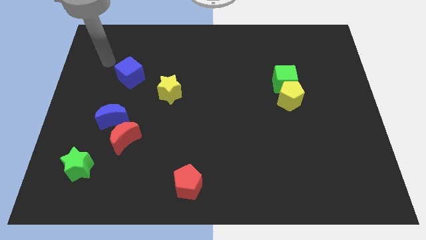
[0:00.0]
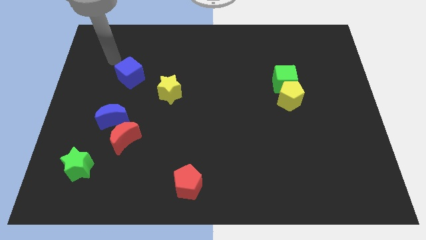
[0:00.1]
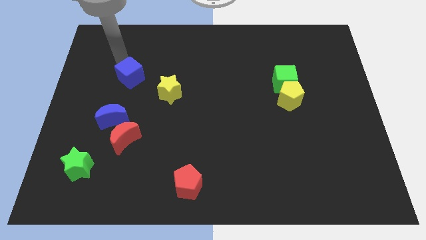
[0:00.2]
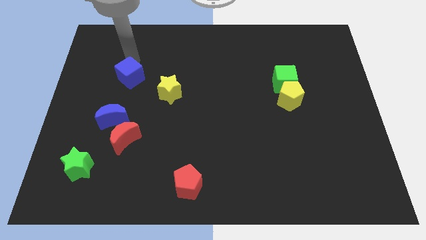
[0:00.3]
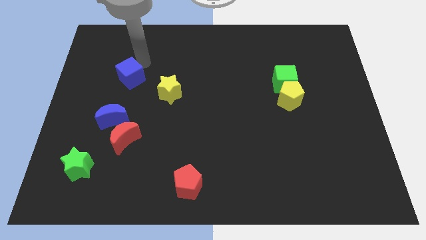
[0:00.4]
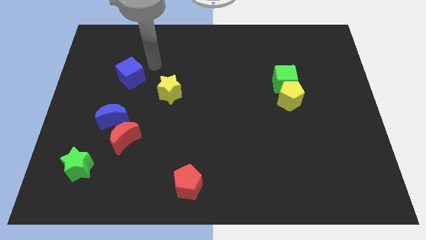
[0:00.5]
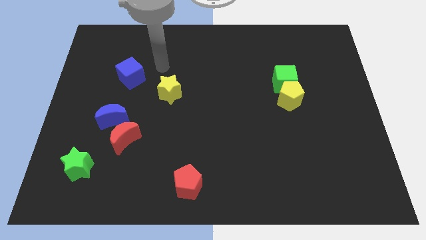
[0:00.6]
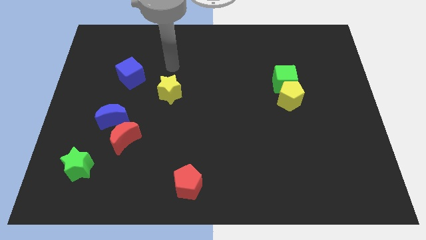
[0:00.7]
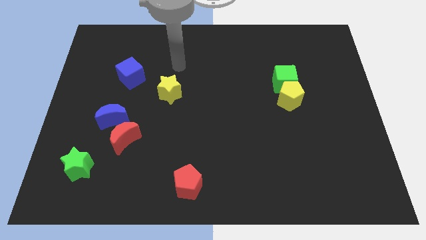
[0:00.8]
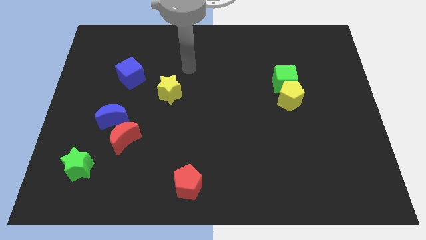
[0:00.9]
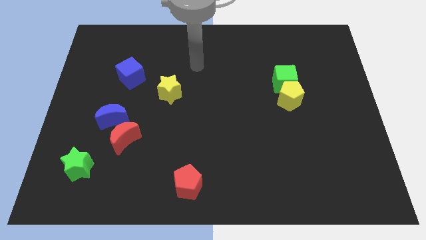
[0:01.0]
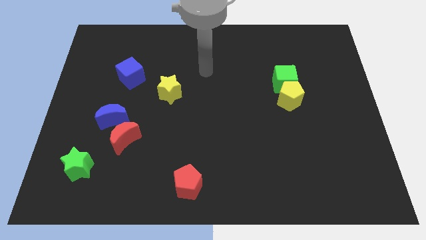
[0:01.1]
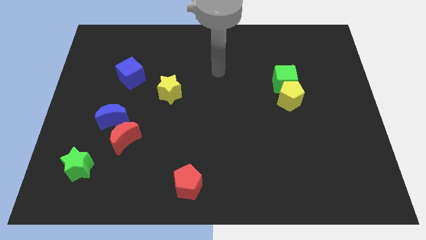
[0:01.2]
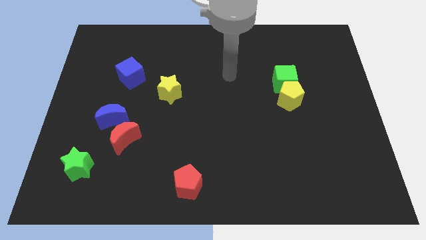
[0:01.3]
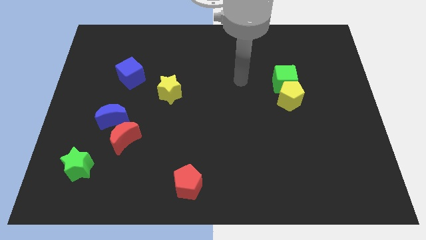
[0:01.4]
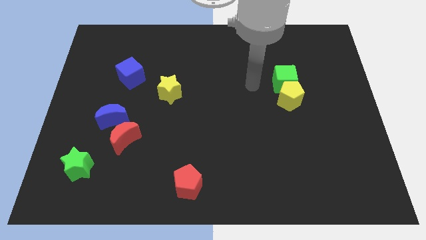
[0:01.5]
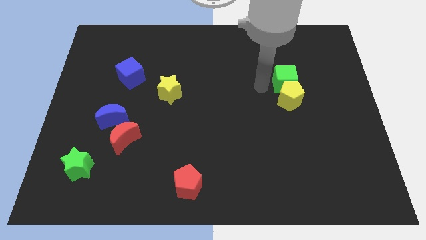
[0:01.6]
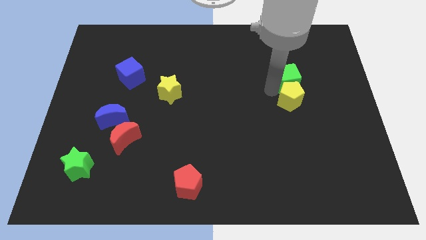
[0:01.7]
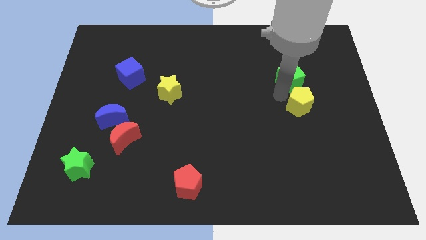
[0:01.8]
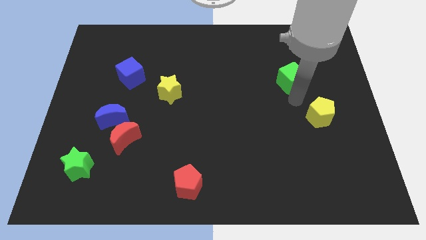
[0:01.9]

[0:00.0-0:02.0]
pull the green cube apart from the yellow pentagon

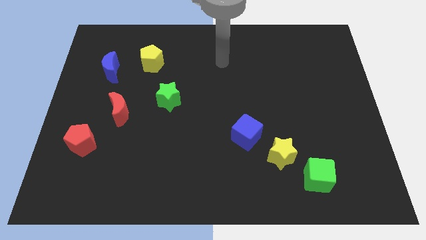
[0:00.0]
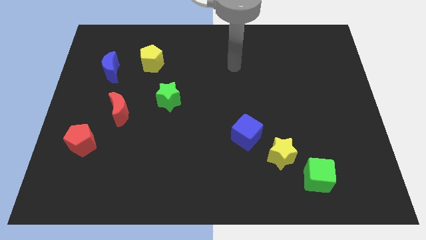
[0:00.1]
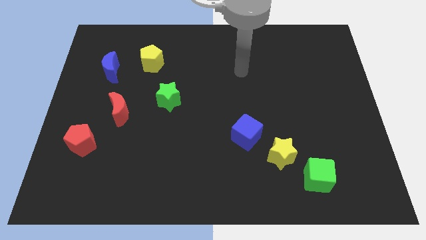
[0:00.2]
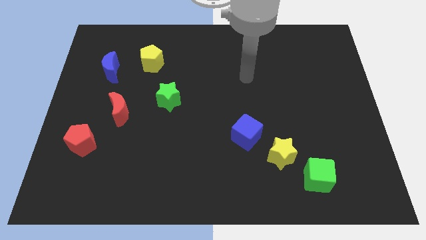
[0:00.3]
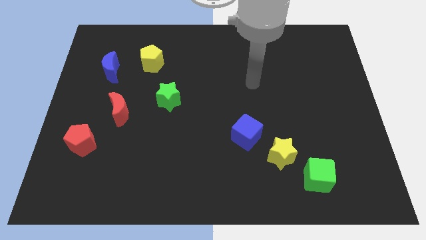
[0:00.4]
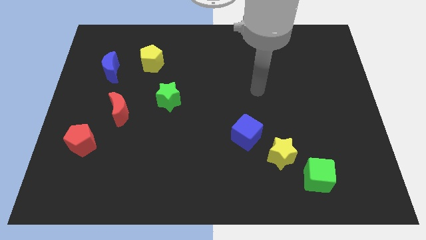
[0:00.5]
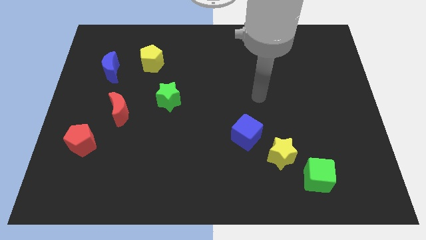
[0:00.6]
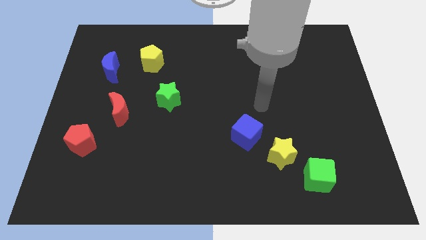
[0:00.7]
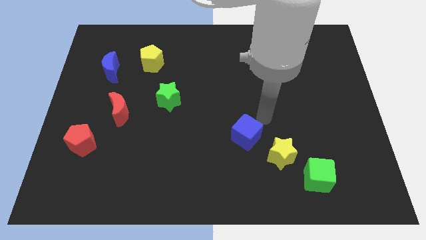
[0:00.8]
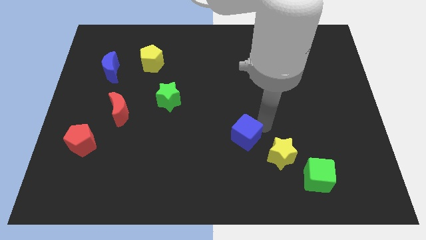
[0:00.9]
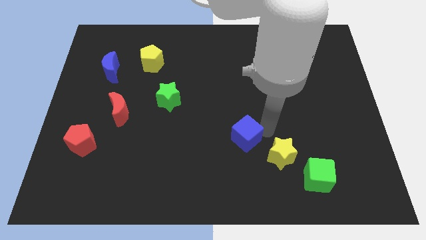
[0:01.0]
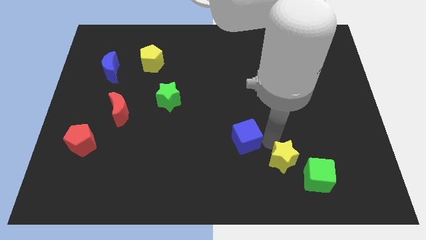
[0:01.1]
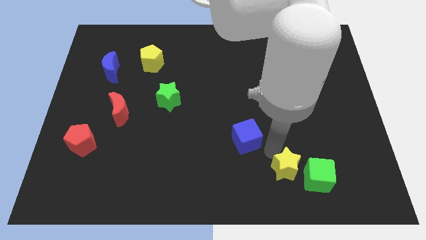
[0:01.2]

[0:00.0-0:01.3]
separate the blue cube from the yellow star

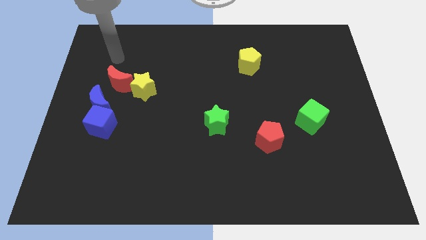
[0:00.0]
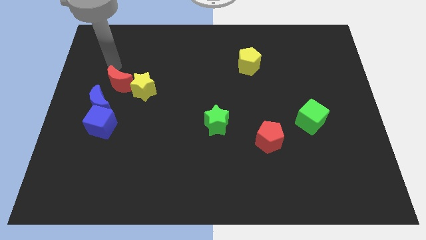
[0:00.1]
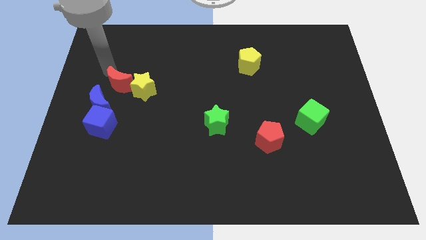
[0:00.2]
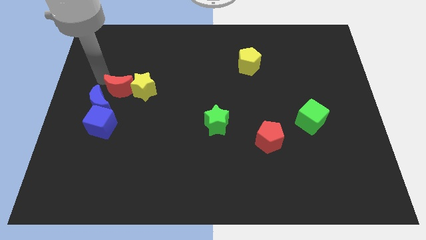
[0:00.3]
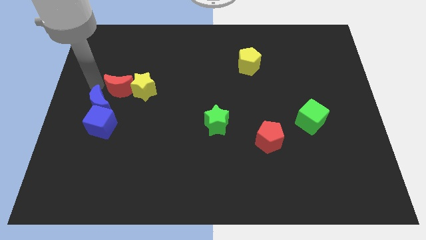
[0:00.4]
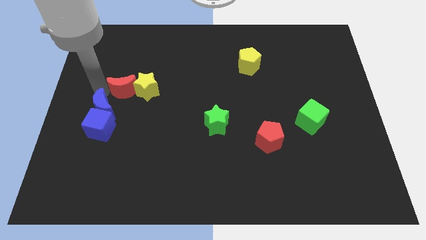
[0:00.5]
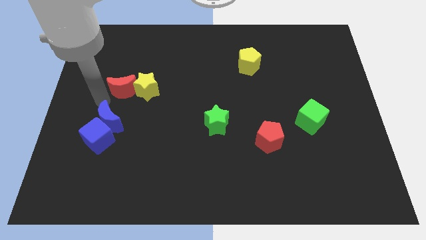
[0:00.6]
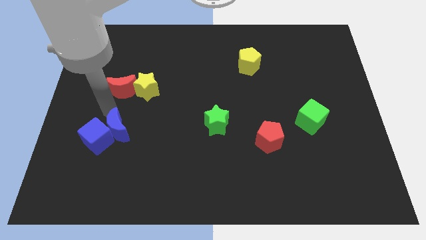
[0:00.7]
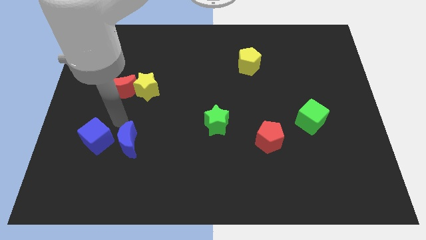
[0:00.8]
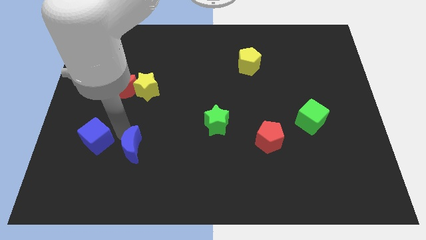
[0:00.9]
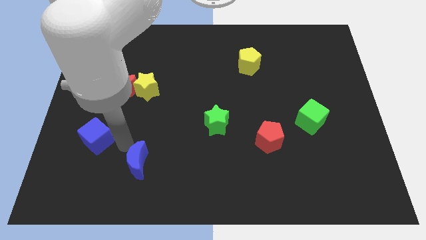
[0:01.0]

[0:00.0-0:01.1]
pull the blue cube apart from the blue moon

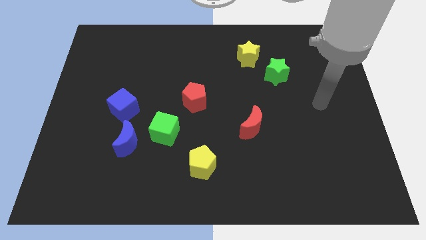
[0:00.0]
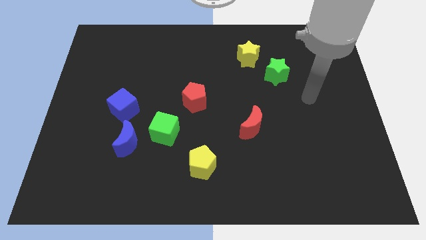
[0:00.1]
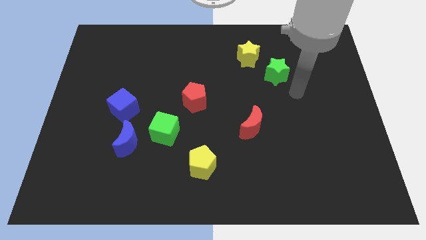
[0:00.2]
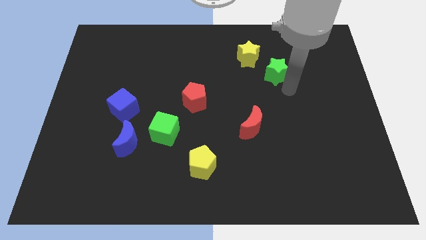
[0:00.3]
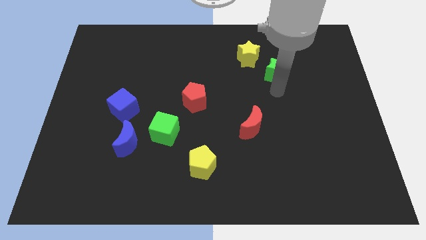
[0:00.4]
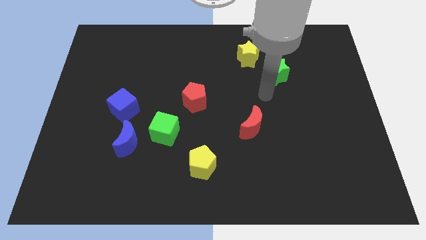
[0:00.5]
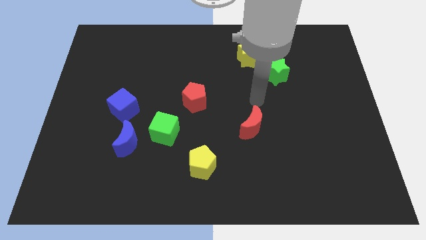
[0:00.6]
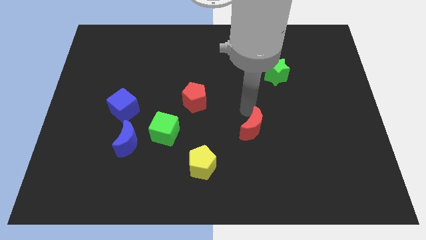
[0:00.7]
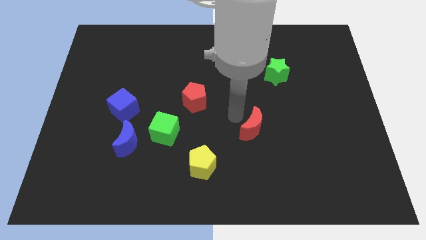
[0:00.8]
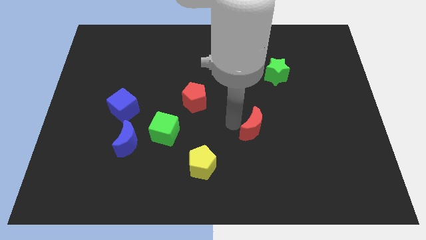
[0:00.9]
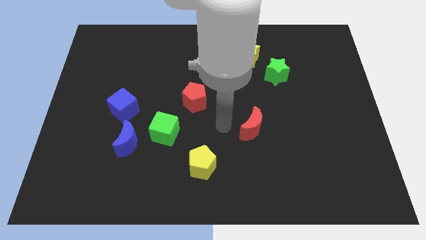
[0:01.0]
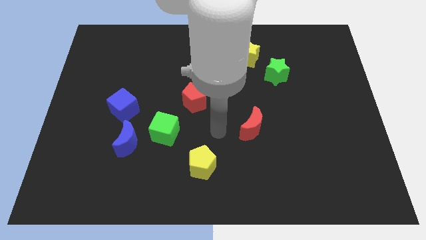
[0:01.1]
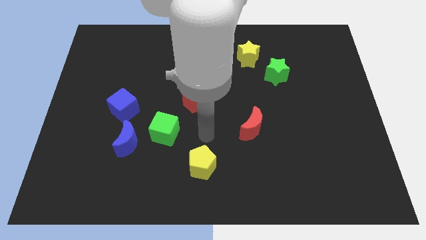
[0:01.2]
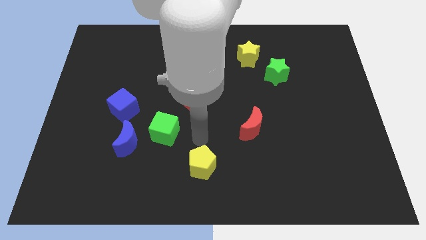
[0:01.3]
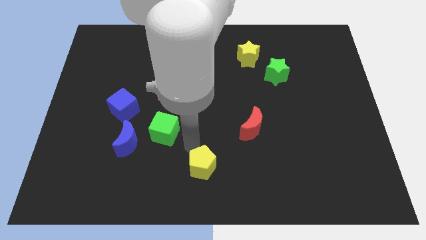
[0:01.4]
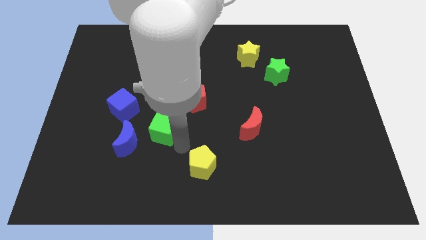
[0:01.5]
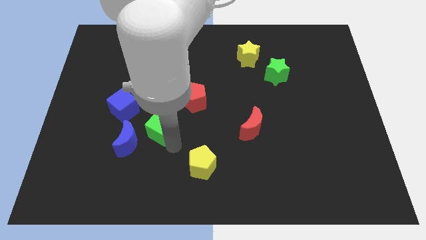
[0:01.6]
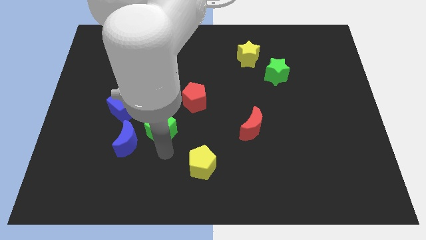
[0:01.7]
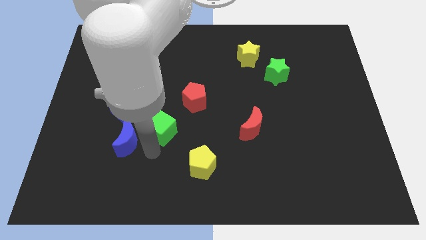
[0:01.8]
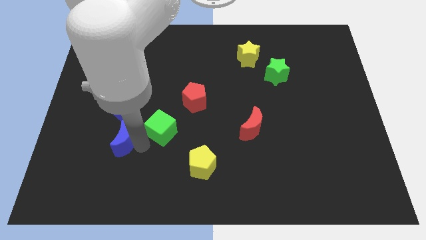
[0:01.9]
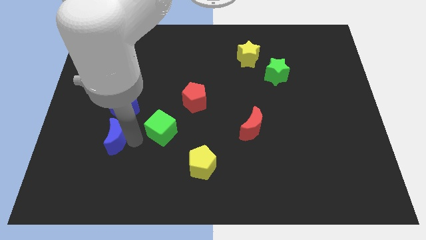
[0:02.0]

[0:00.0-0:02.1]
pull the green cube apart from the blue moon

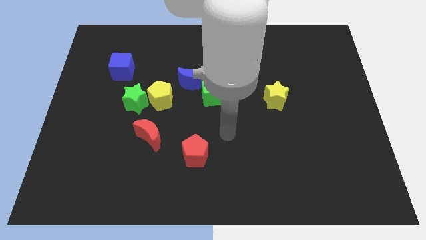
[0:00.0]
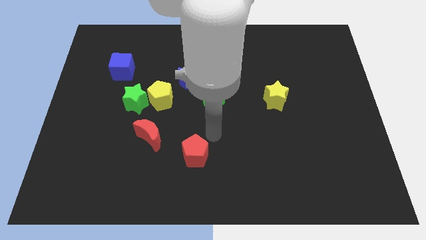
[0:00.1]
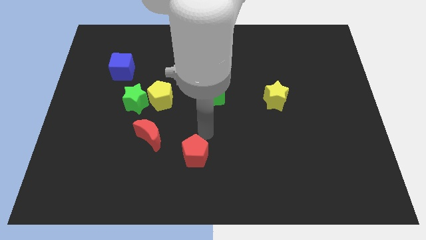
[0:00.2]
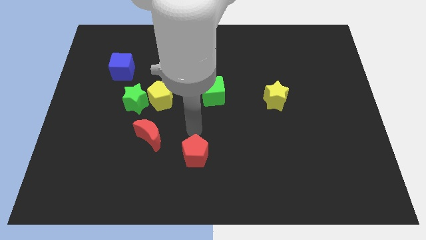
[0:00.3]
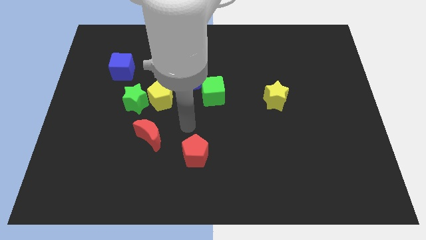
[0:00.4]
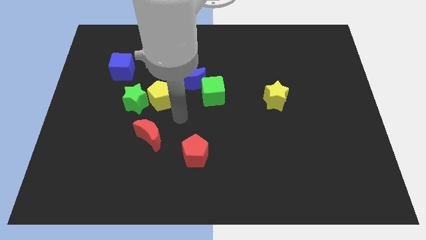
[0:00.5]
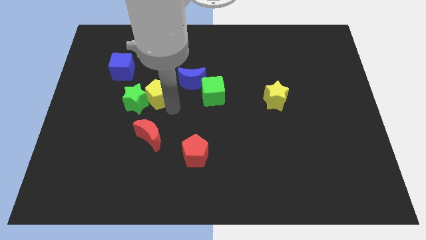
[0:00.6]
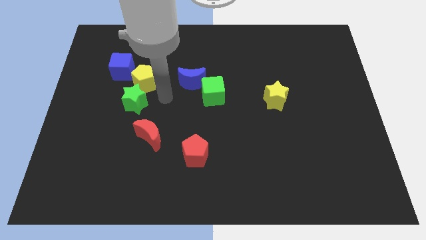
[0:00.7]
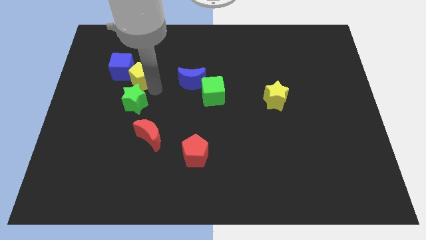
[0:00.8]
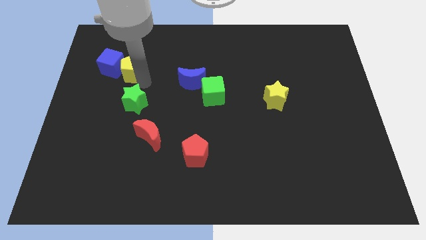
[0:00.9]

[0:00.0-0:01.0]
pull the green star apart from the yellow pentagon

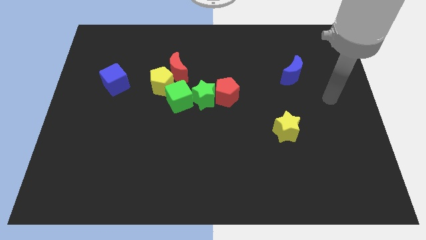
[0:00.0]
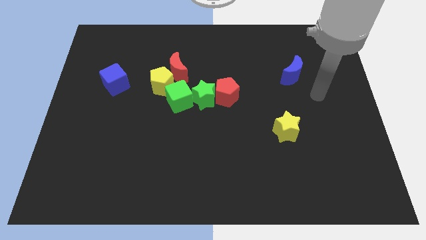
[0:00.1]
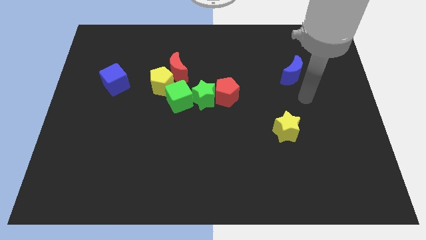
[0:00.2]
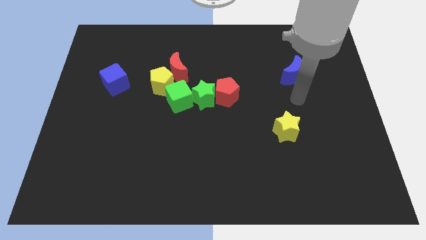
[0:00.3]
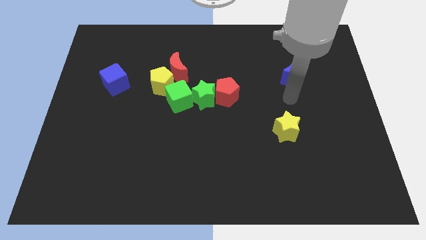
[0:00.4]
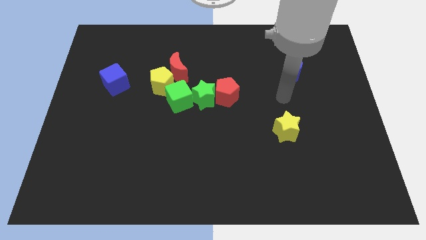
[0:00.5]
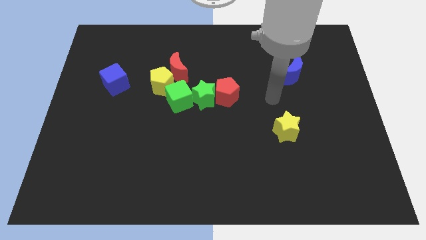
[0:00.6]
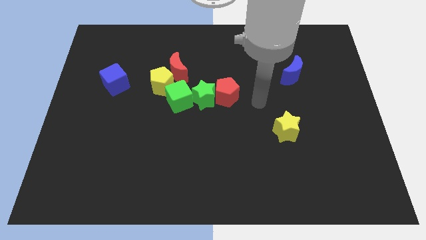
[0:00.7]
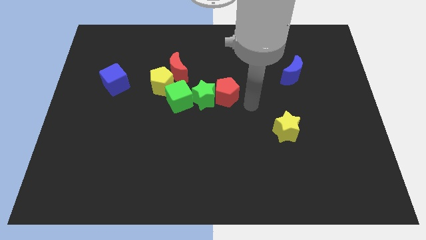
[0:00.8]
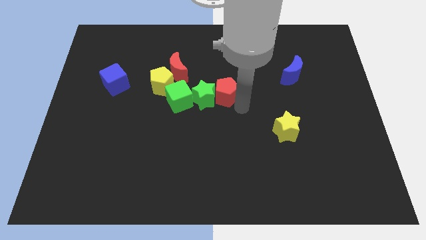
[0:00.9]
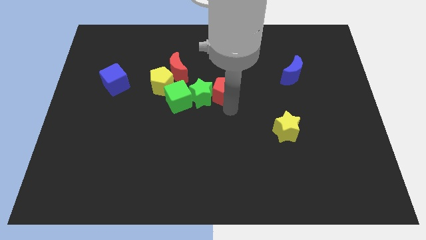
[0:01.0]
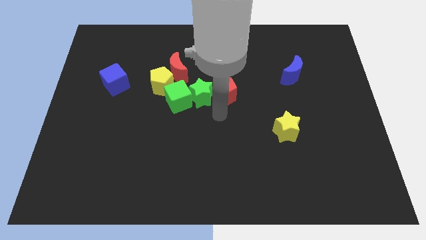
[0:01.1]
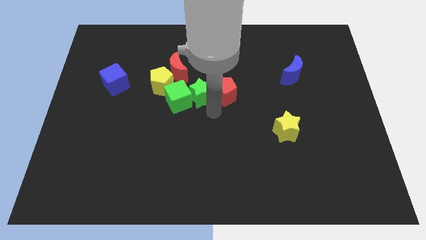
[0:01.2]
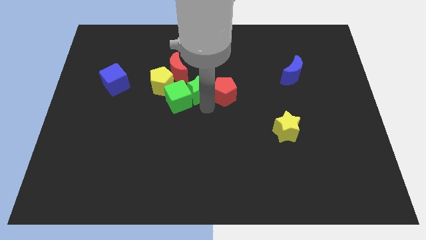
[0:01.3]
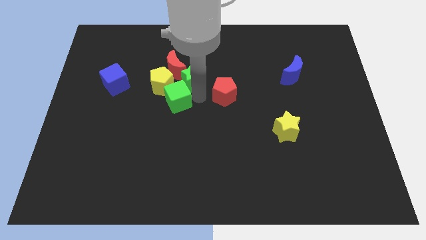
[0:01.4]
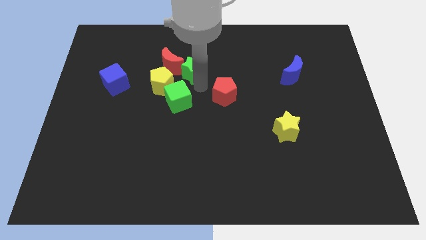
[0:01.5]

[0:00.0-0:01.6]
pull the red pentagon apart from the green star

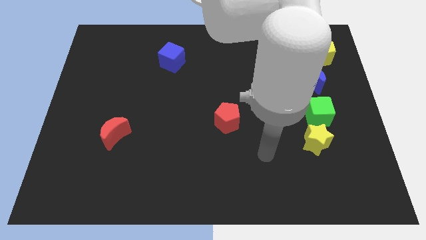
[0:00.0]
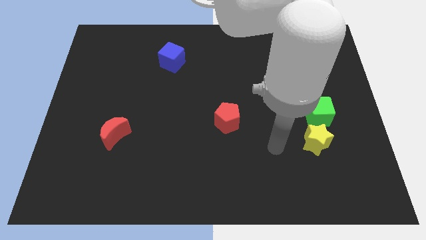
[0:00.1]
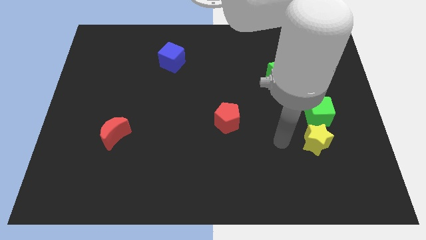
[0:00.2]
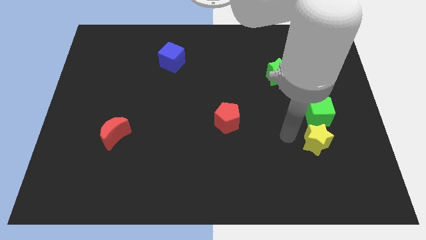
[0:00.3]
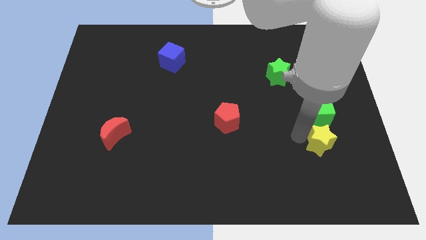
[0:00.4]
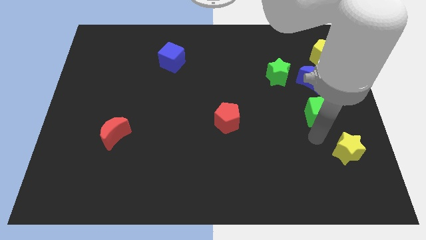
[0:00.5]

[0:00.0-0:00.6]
separate the green cube from the yellow star
